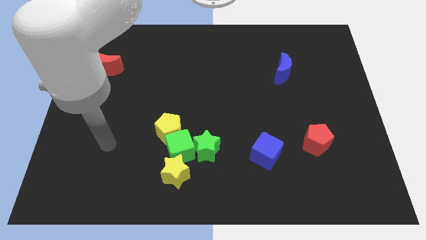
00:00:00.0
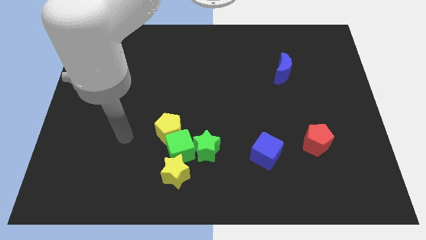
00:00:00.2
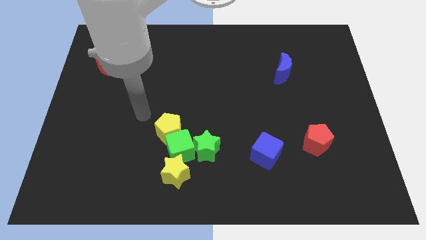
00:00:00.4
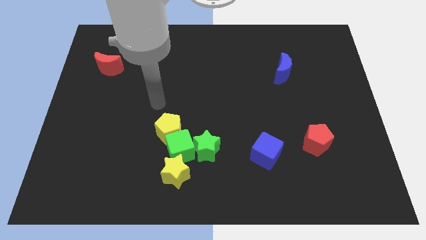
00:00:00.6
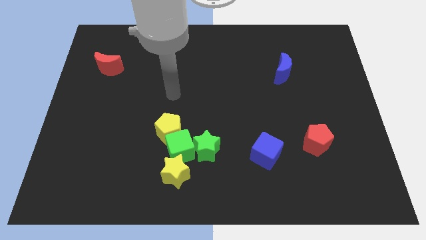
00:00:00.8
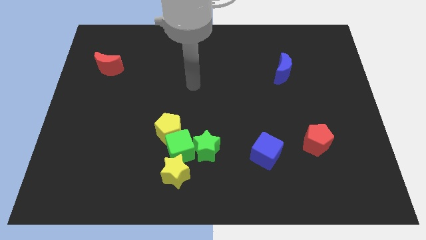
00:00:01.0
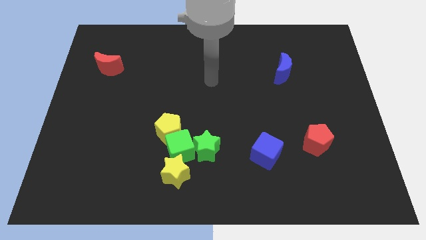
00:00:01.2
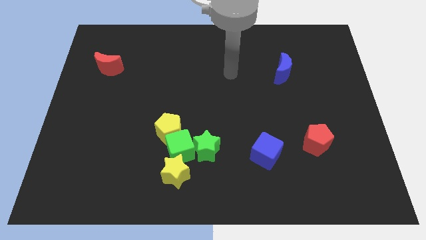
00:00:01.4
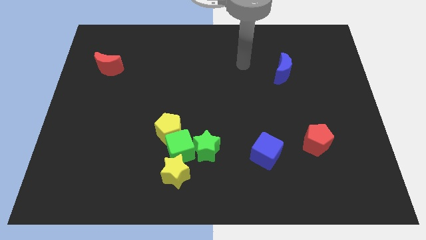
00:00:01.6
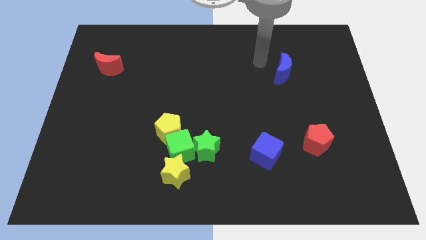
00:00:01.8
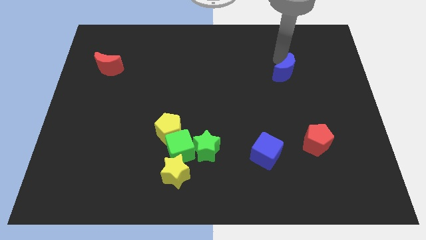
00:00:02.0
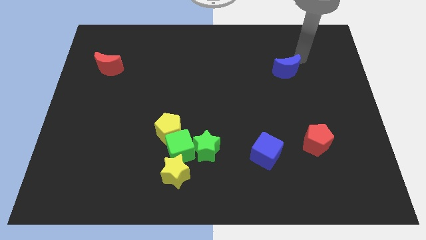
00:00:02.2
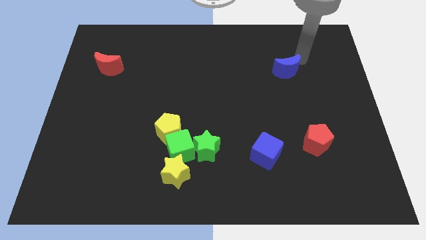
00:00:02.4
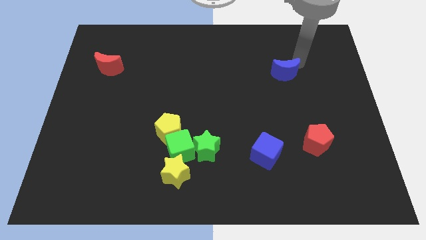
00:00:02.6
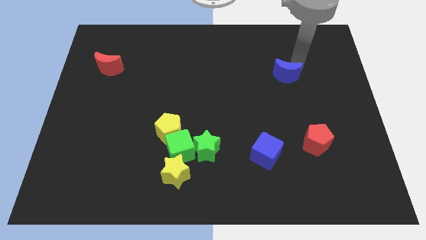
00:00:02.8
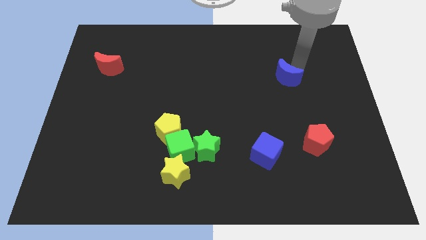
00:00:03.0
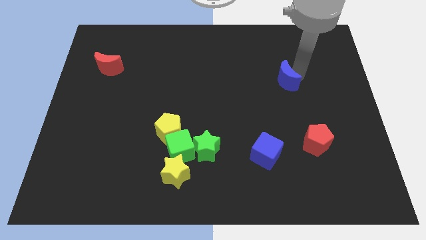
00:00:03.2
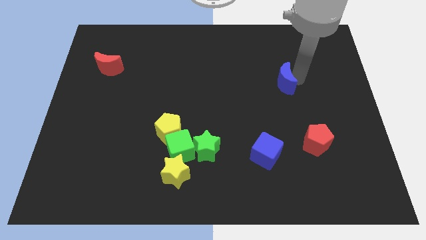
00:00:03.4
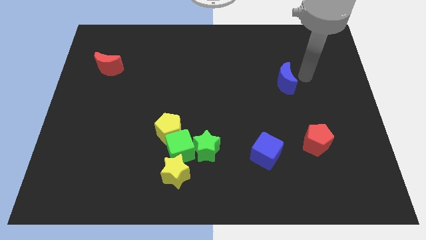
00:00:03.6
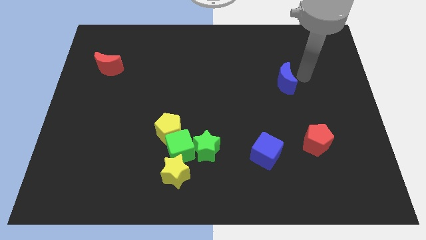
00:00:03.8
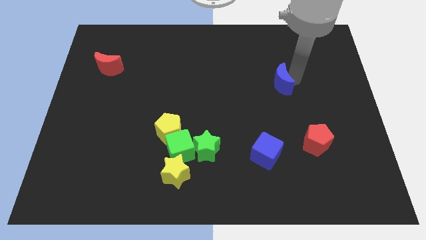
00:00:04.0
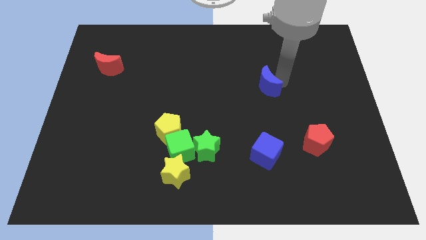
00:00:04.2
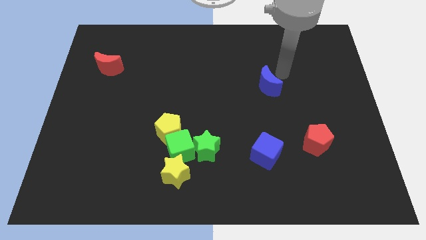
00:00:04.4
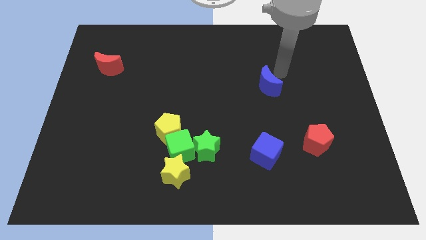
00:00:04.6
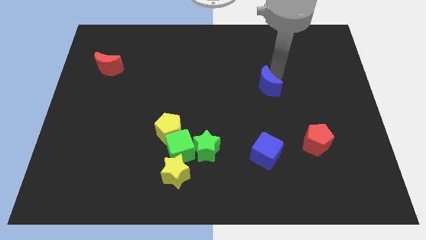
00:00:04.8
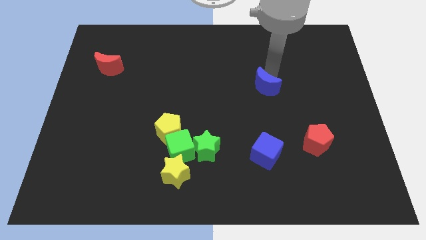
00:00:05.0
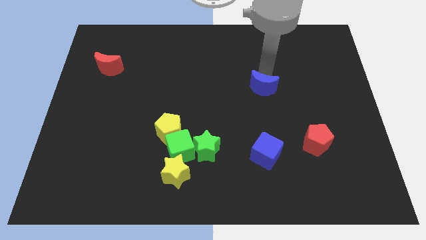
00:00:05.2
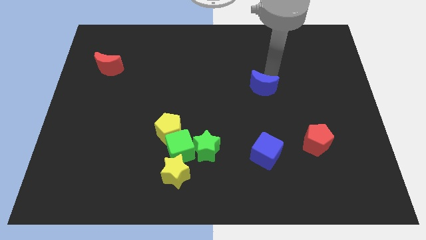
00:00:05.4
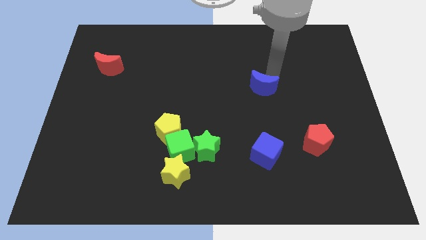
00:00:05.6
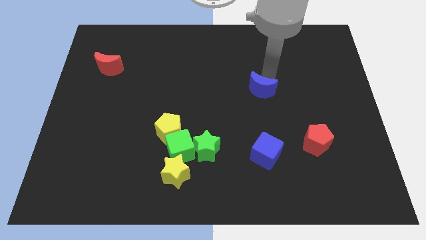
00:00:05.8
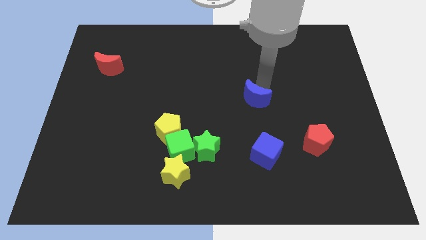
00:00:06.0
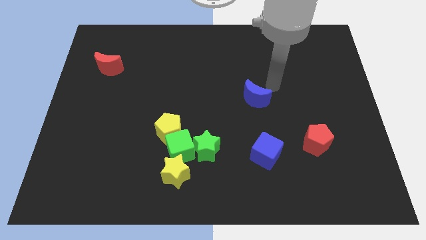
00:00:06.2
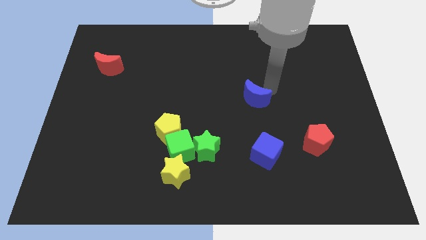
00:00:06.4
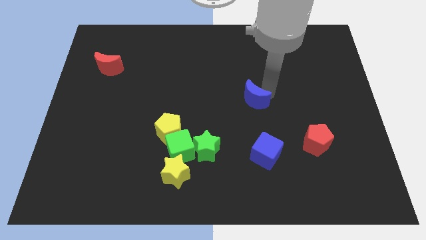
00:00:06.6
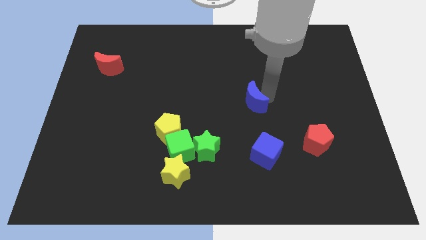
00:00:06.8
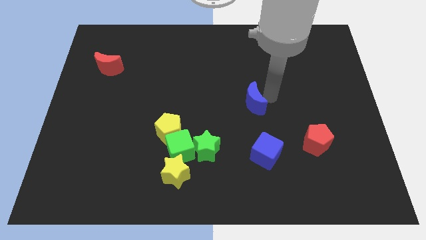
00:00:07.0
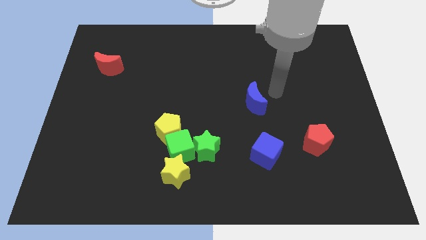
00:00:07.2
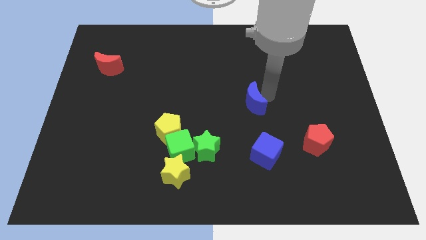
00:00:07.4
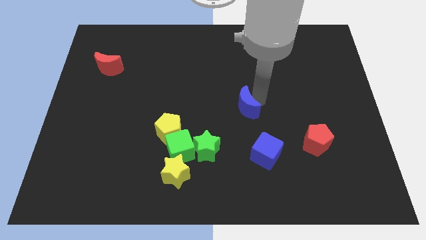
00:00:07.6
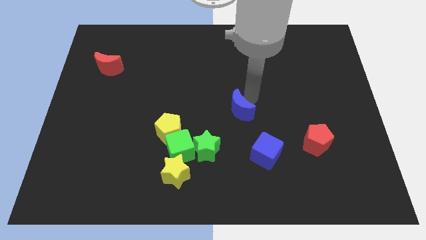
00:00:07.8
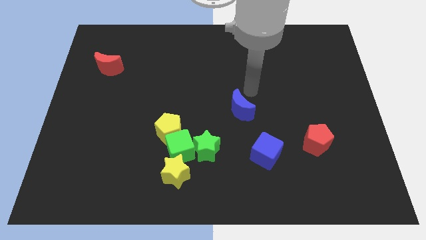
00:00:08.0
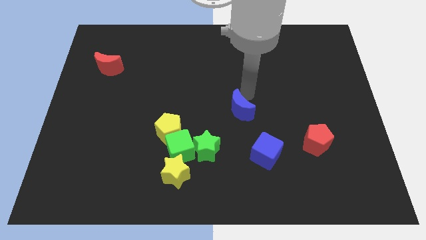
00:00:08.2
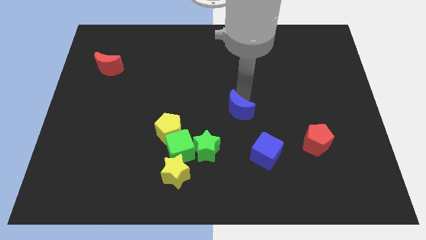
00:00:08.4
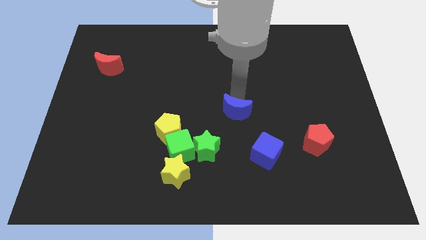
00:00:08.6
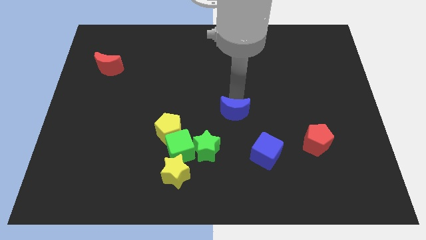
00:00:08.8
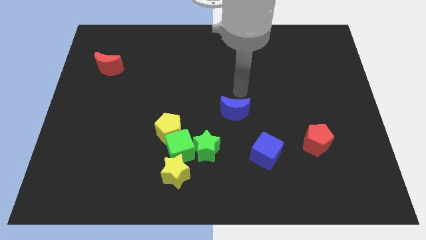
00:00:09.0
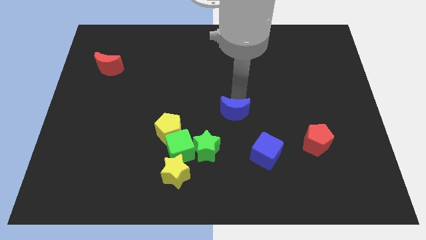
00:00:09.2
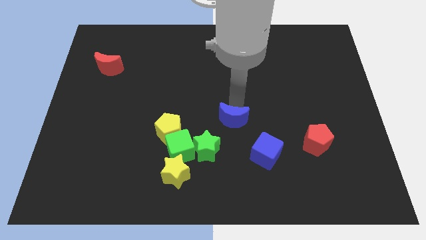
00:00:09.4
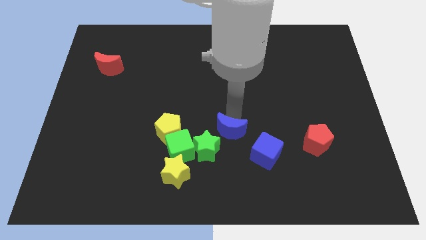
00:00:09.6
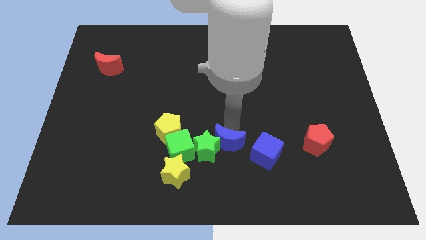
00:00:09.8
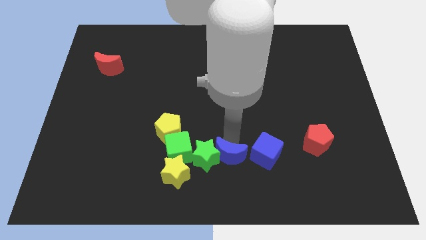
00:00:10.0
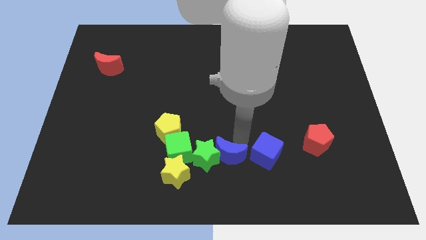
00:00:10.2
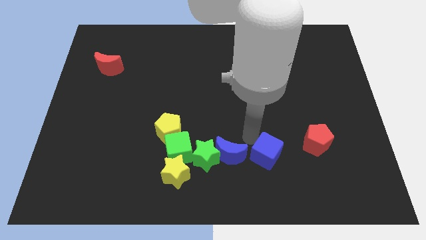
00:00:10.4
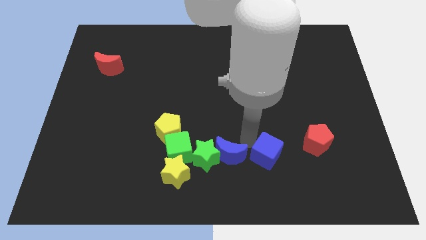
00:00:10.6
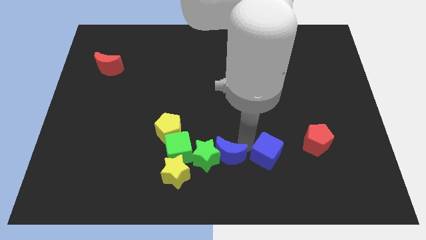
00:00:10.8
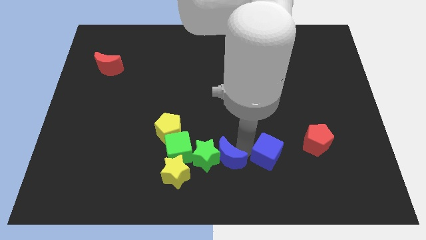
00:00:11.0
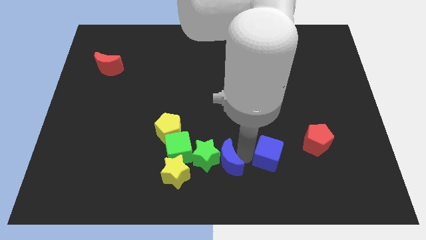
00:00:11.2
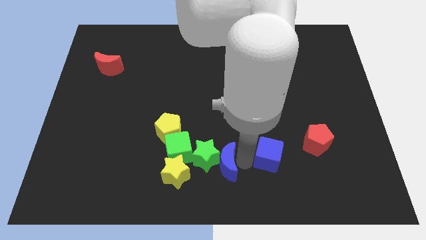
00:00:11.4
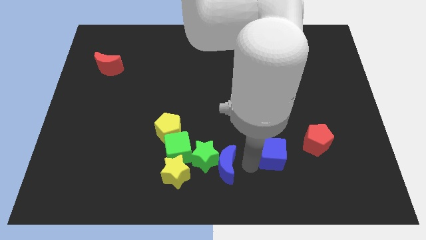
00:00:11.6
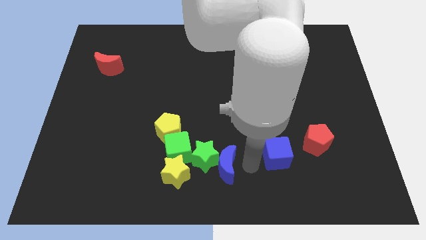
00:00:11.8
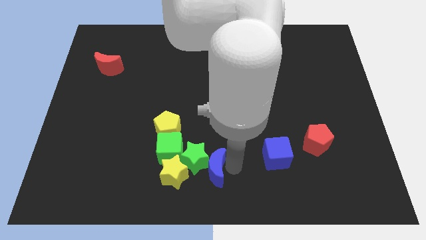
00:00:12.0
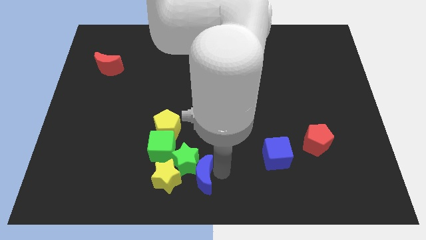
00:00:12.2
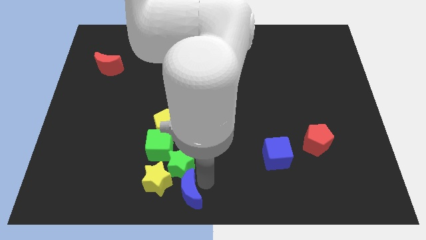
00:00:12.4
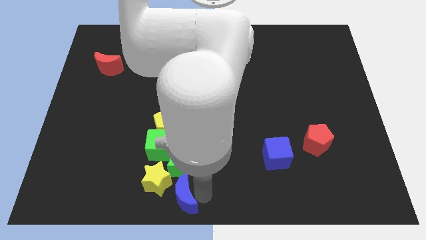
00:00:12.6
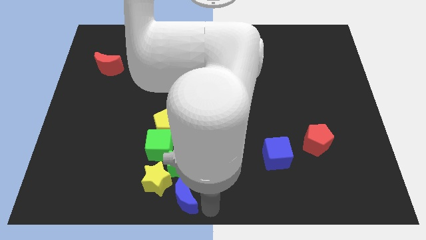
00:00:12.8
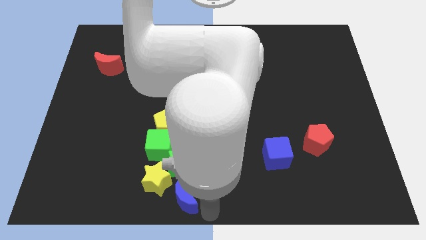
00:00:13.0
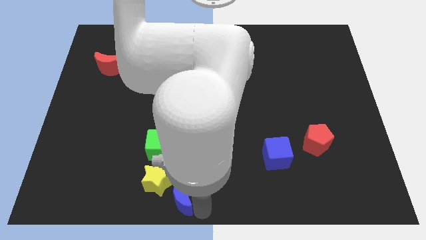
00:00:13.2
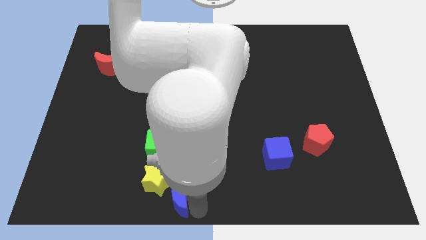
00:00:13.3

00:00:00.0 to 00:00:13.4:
move the blue moon to the yellow star
